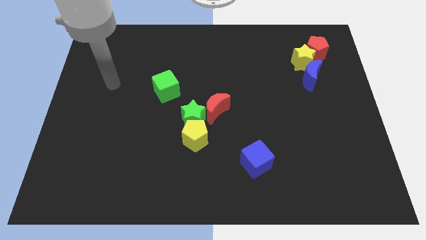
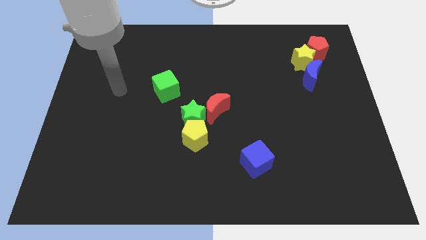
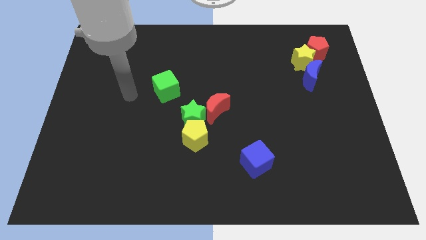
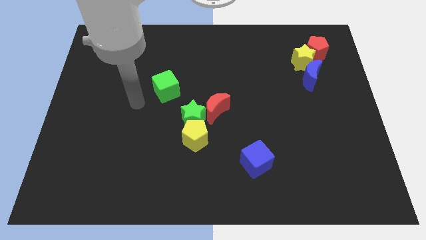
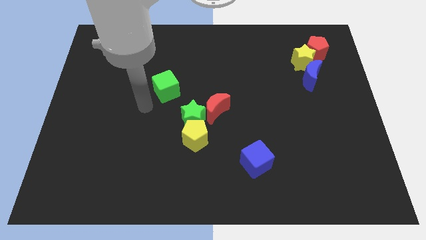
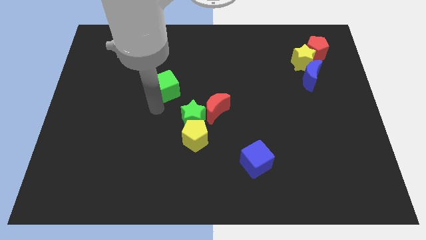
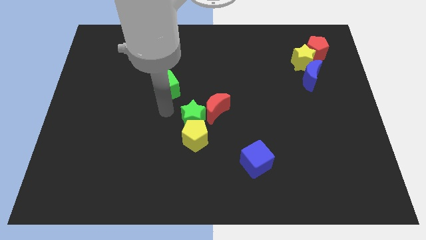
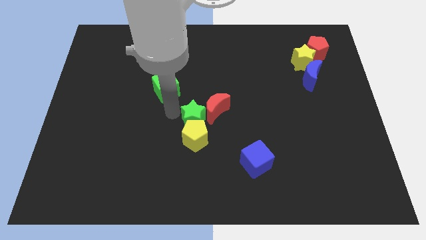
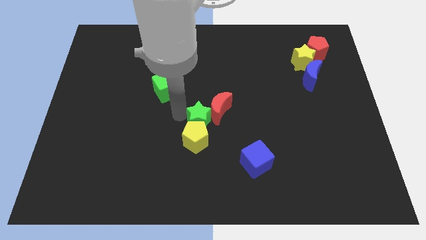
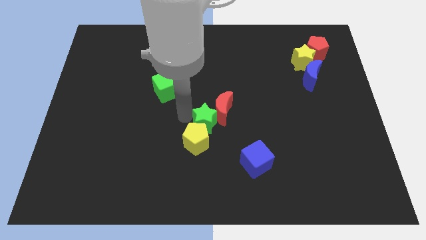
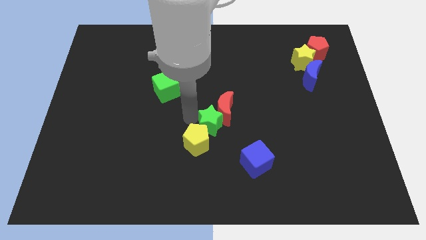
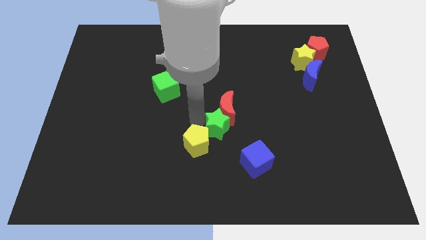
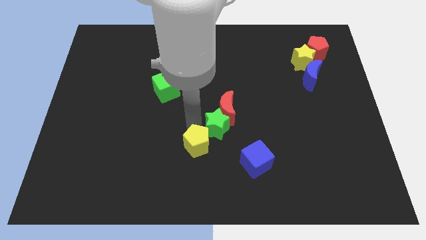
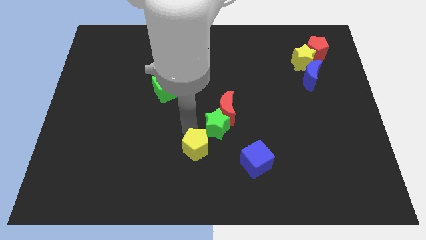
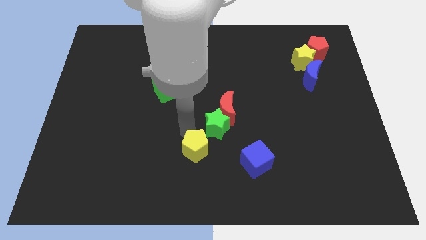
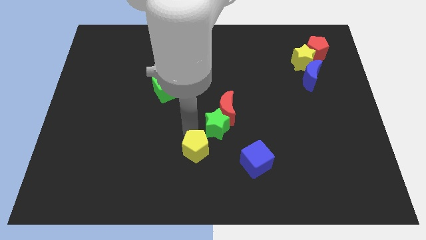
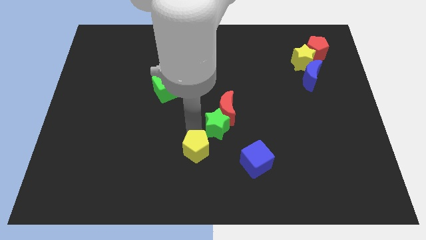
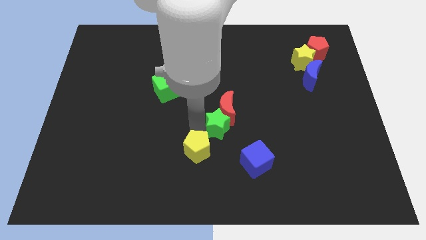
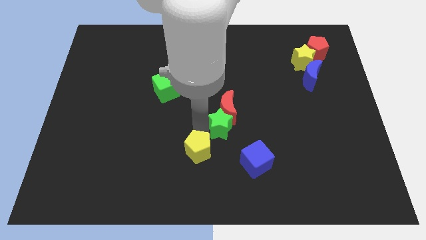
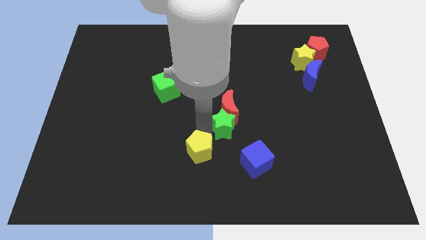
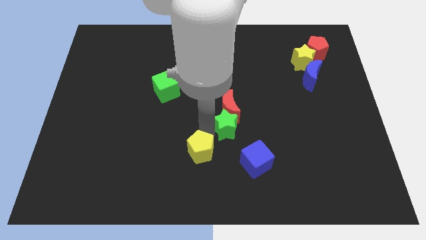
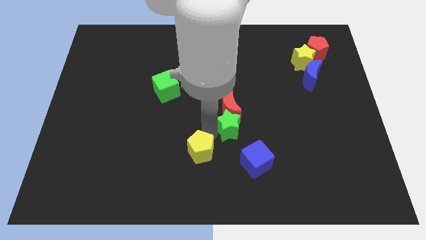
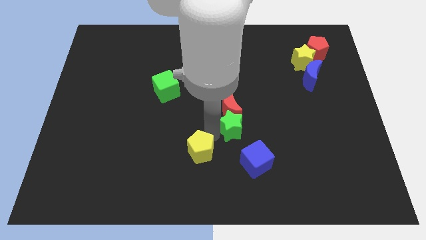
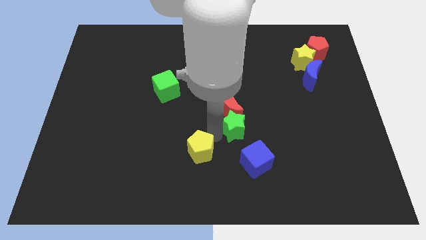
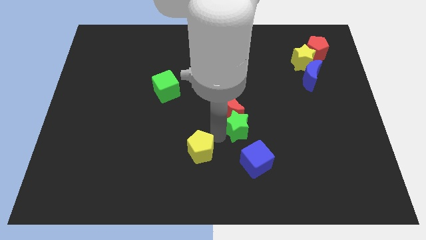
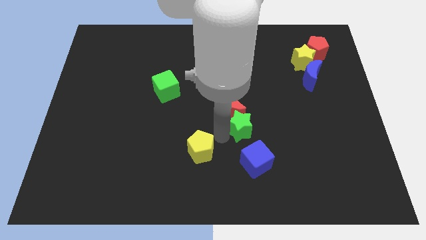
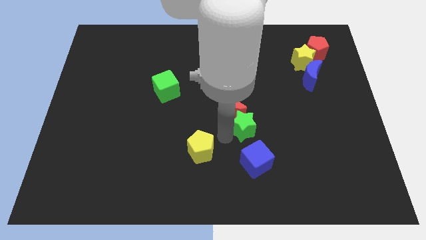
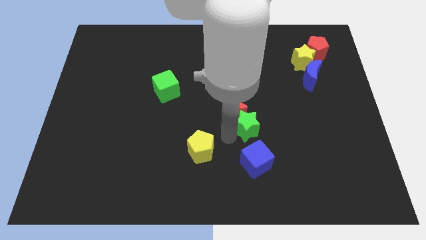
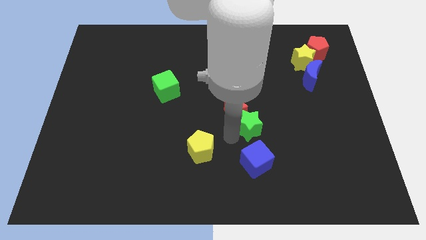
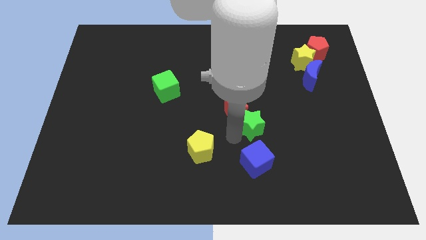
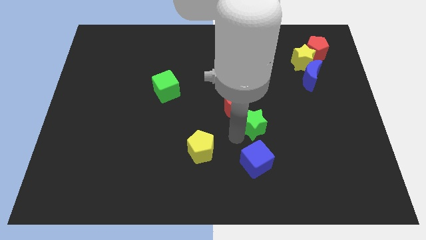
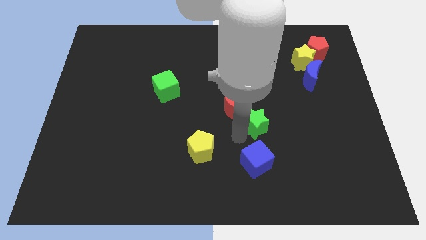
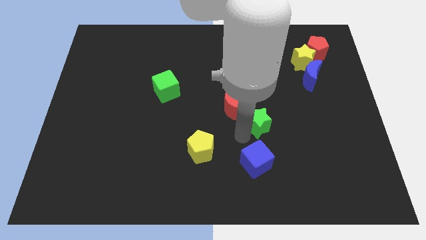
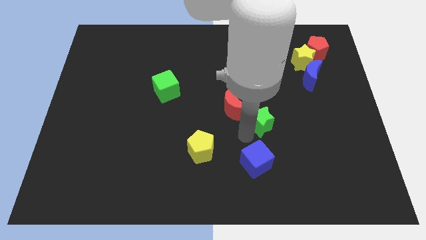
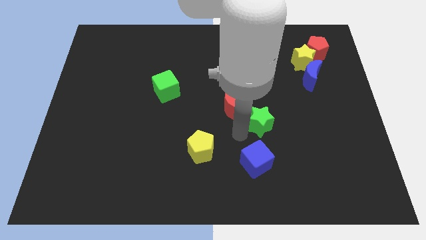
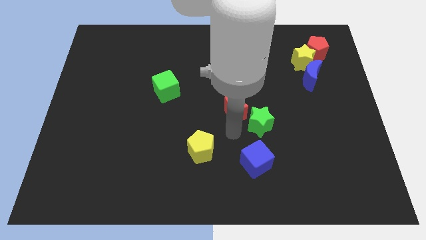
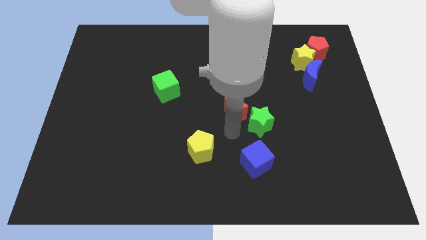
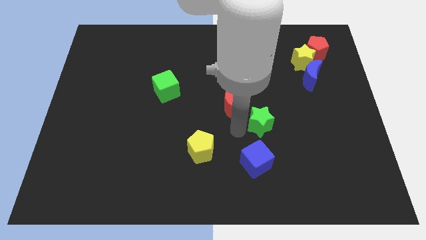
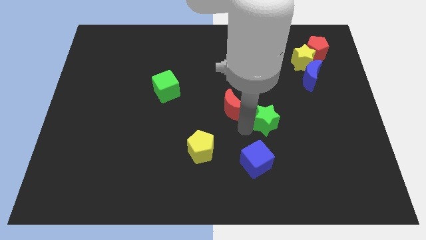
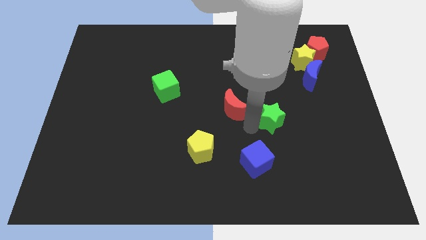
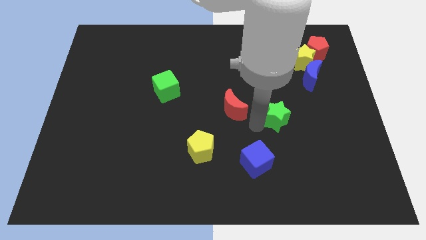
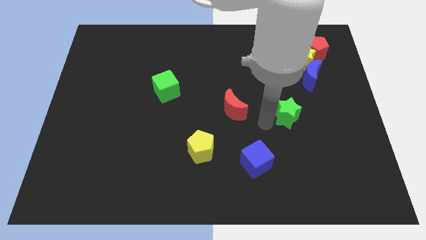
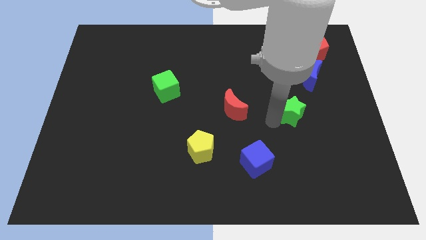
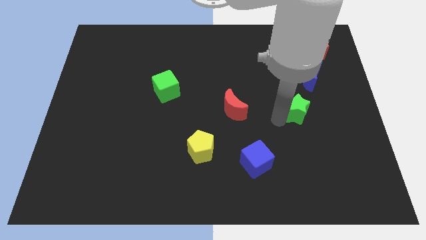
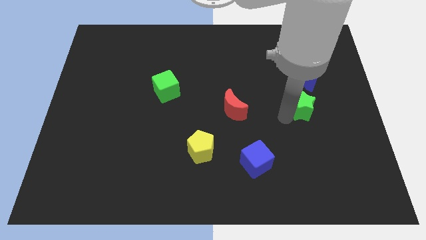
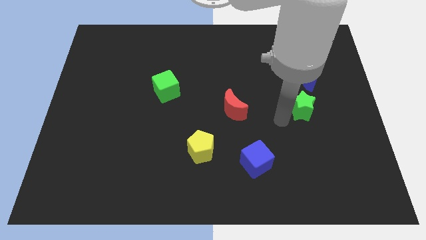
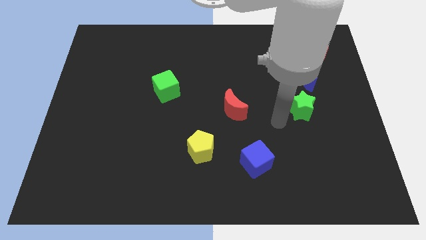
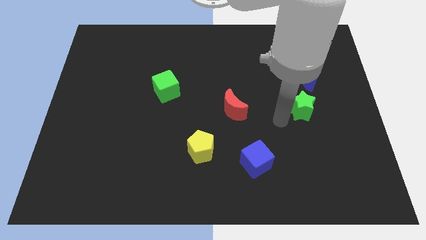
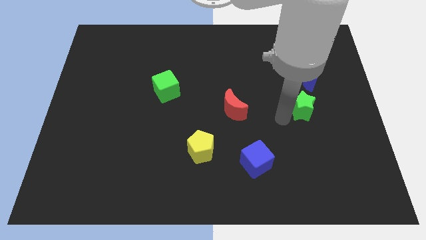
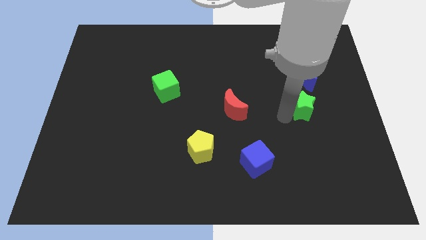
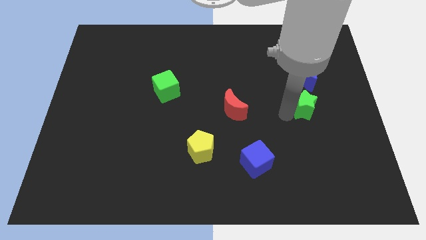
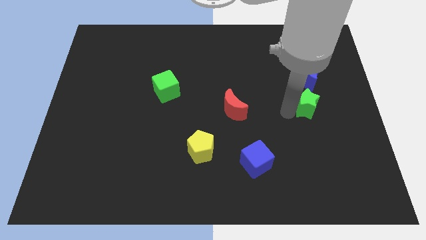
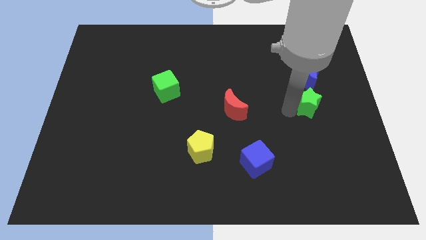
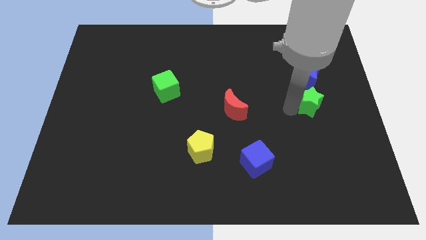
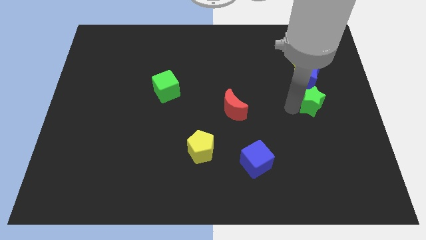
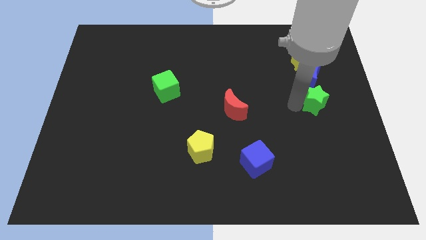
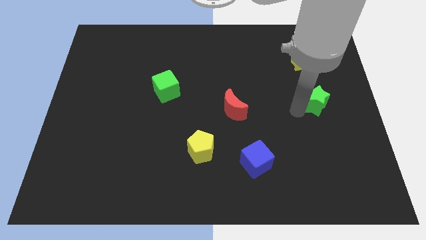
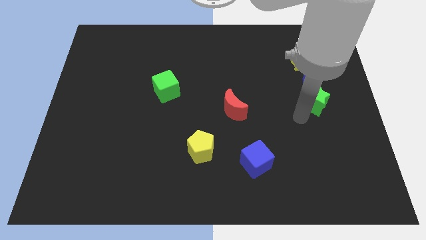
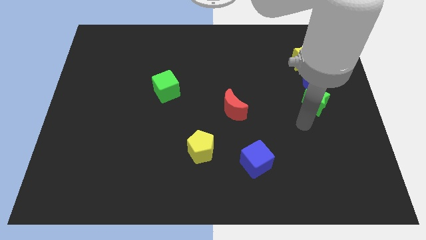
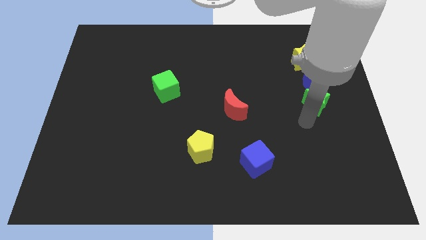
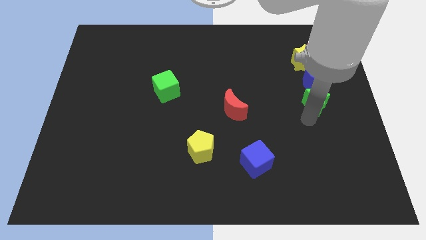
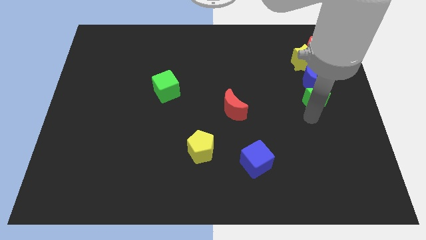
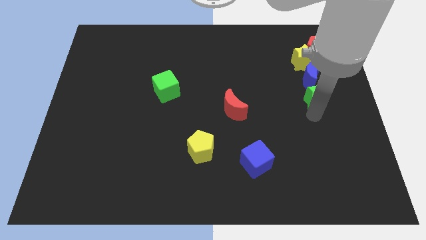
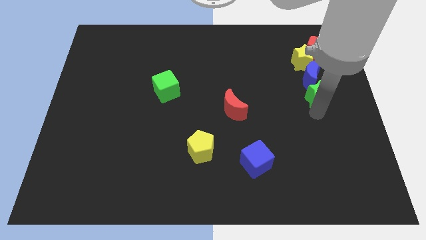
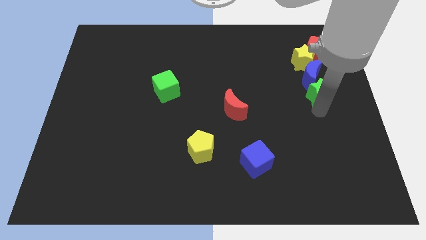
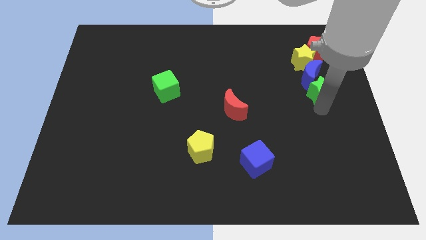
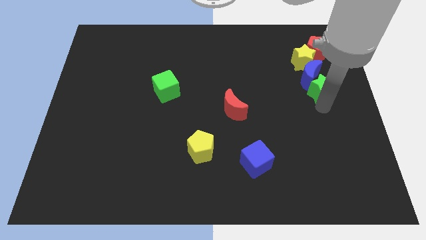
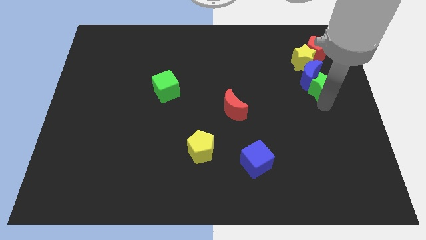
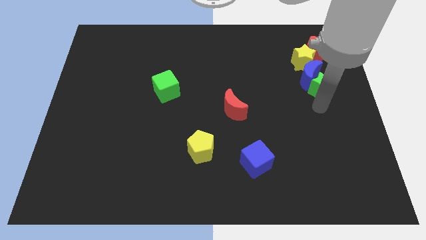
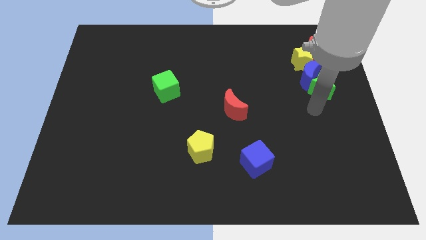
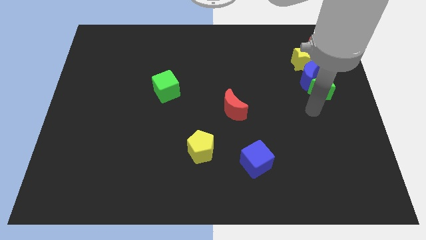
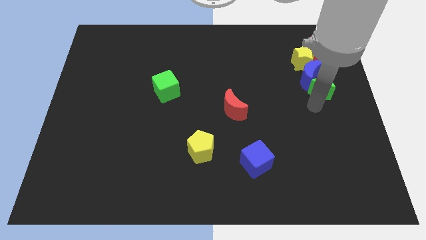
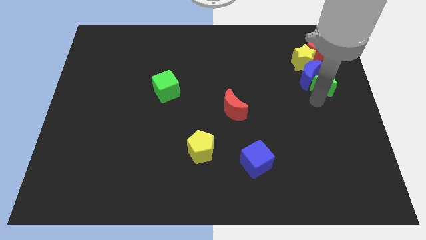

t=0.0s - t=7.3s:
slide the green star diagonally down and to the right of the yellow star
